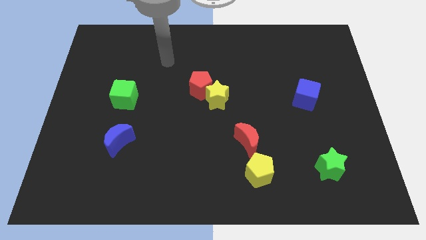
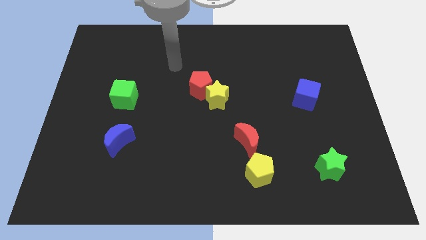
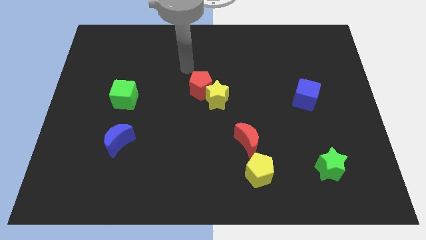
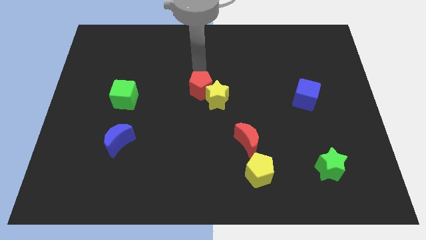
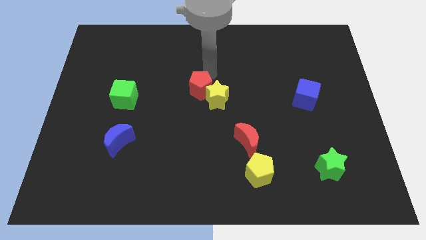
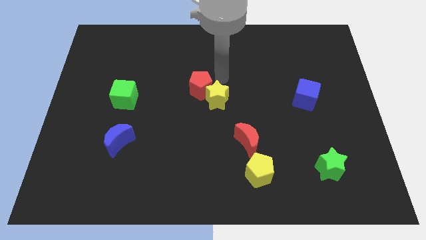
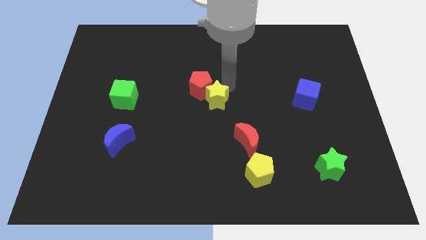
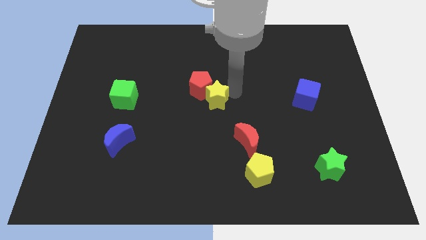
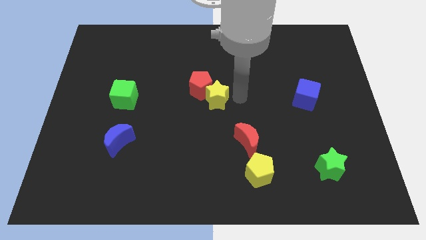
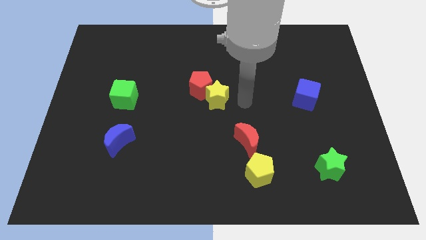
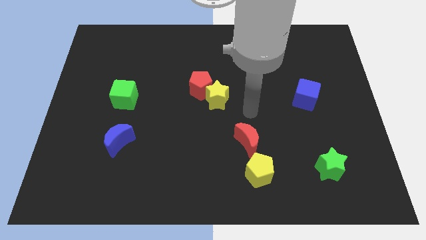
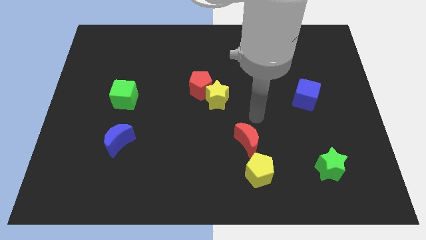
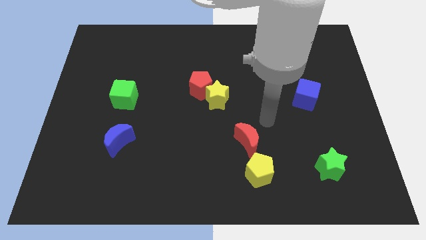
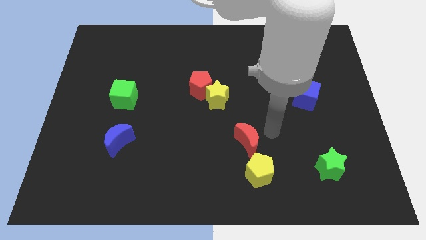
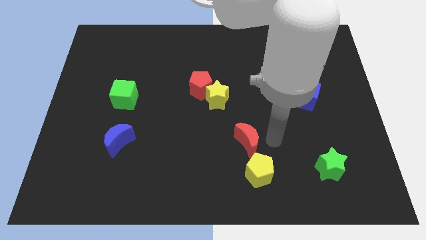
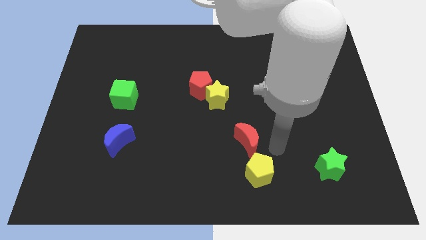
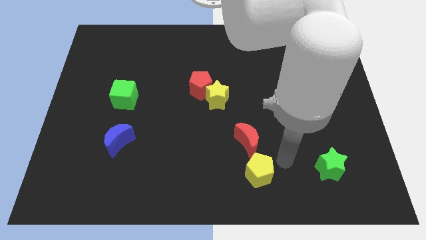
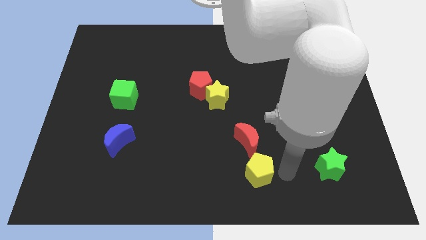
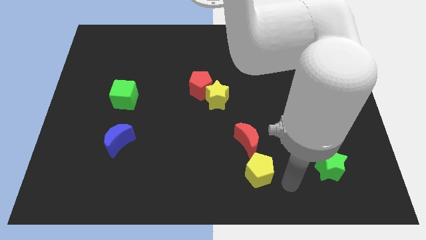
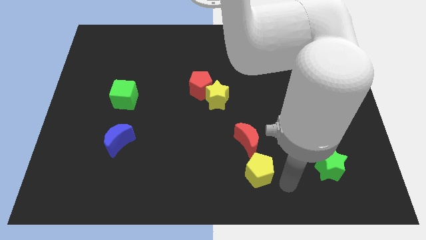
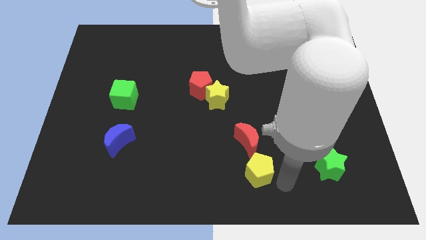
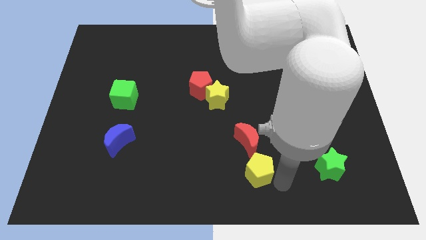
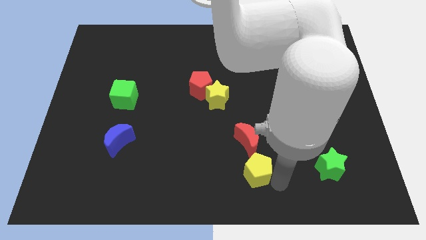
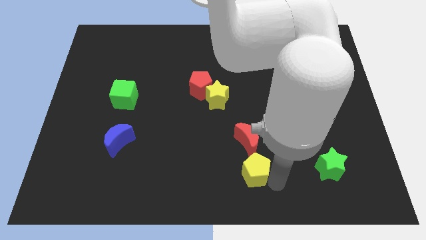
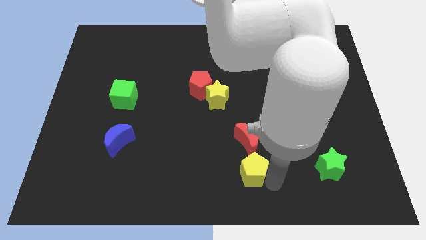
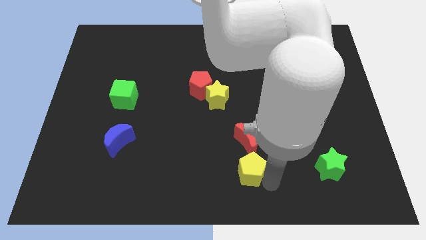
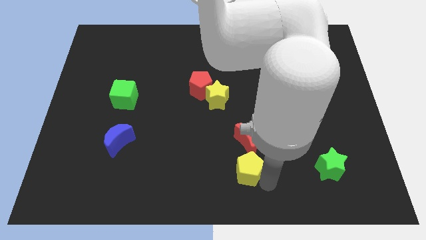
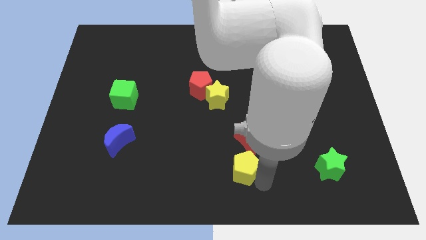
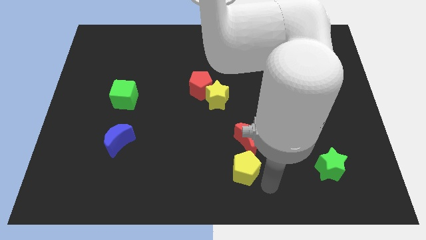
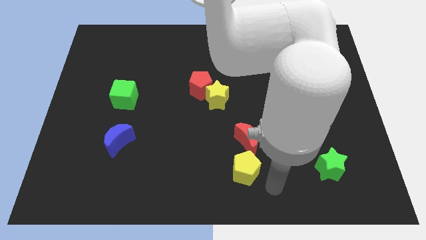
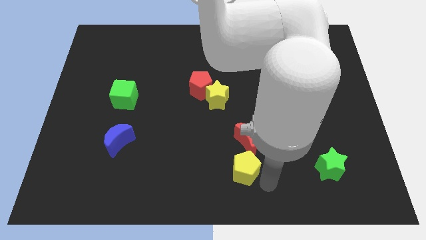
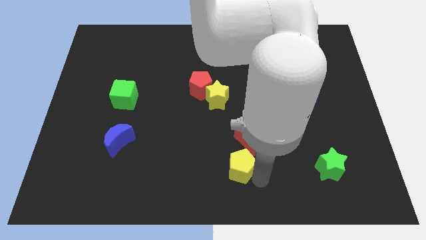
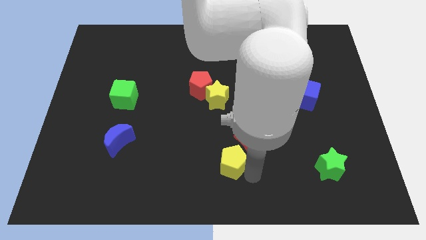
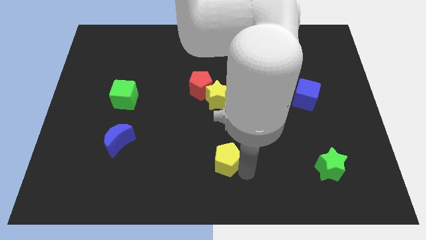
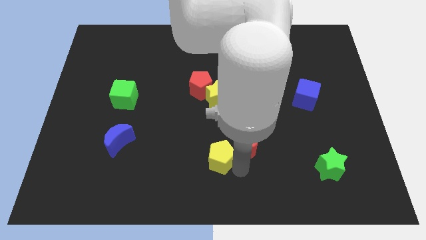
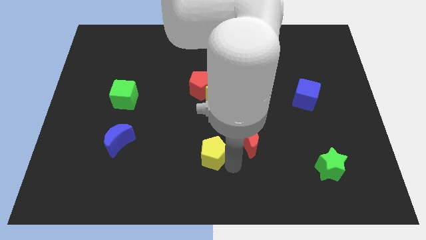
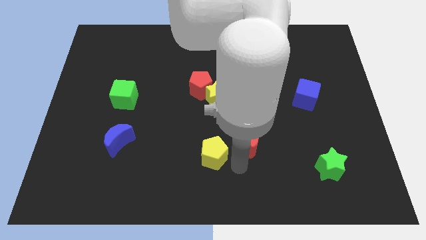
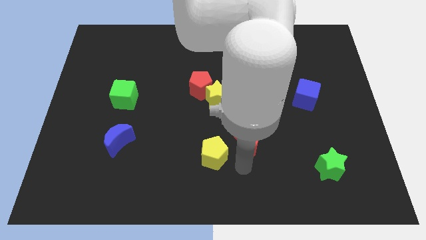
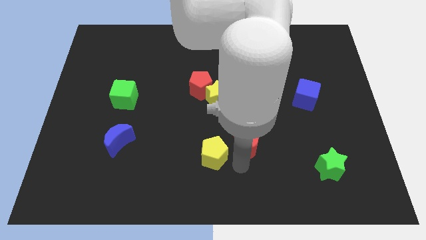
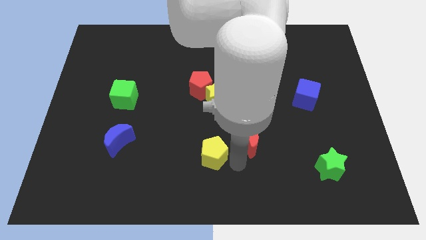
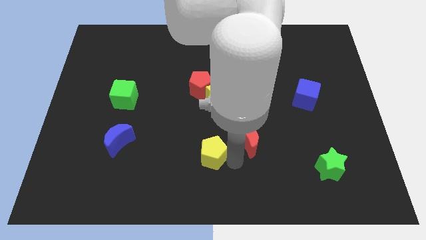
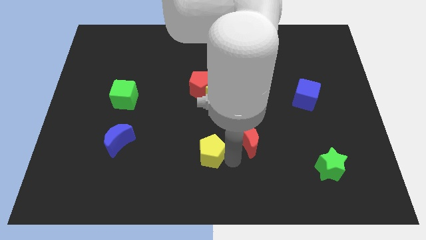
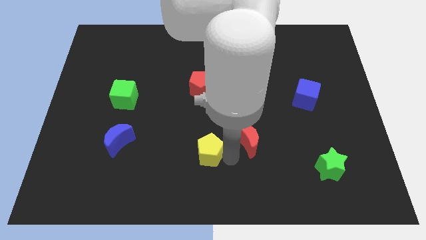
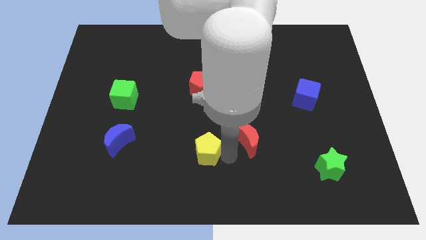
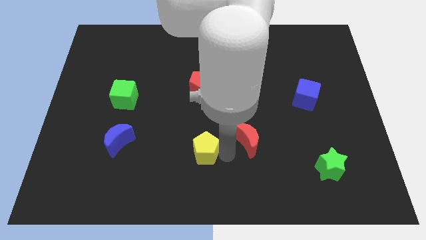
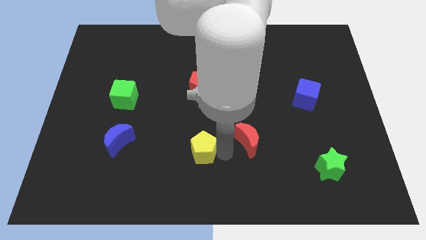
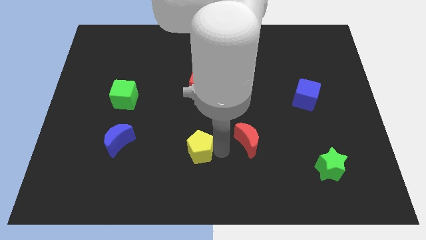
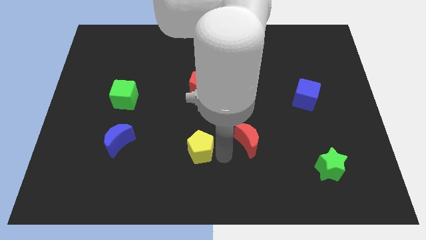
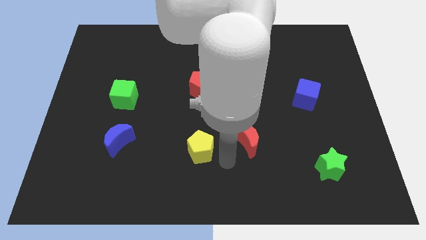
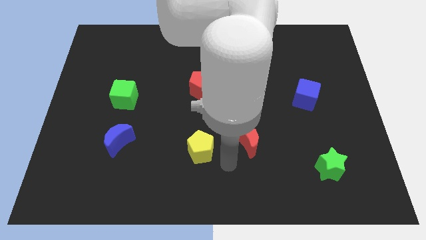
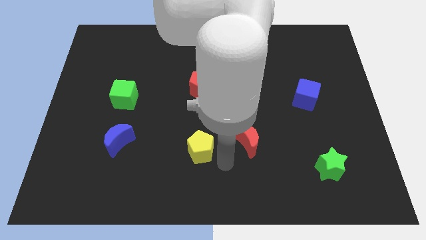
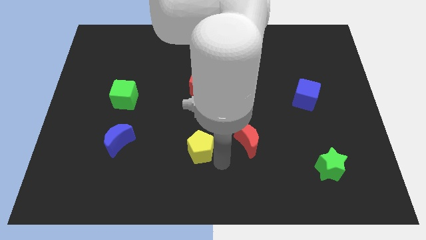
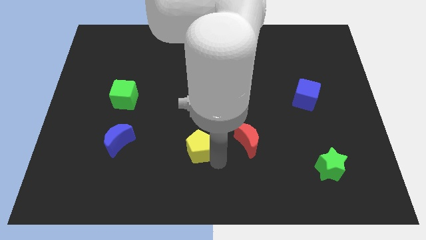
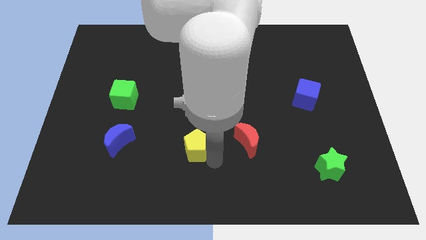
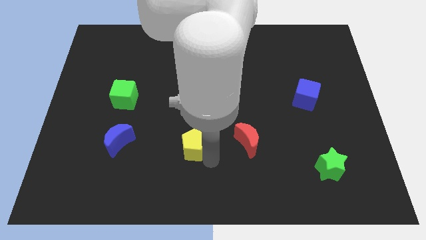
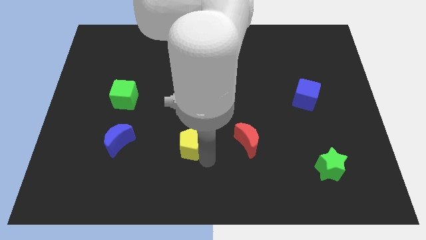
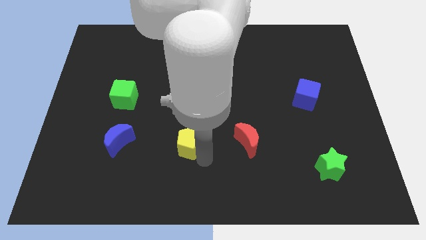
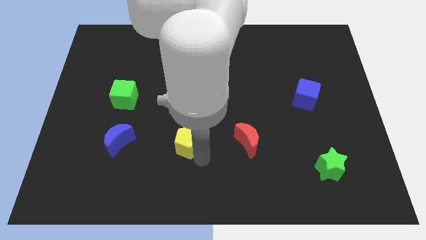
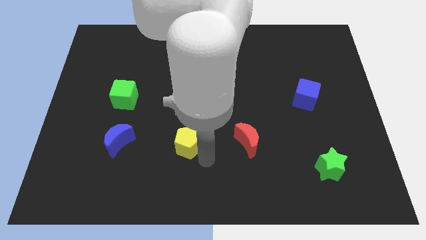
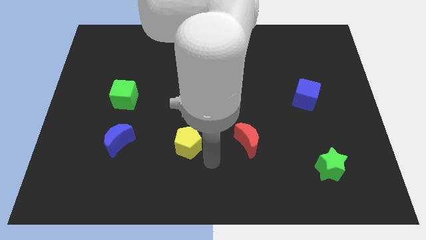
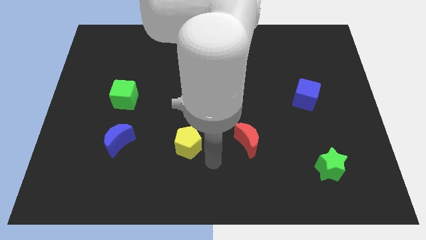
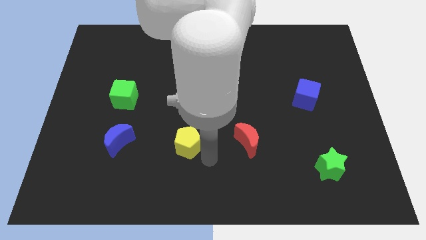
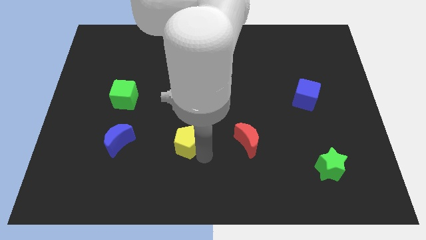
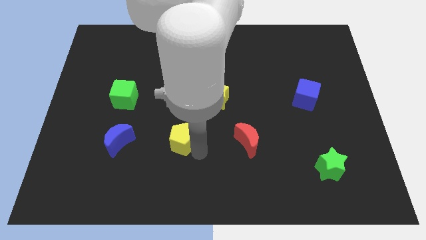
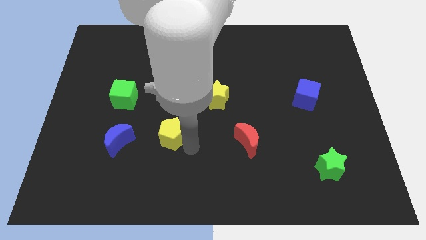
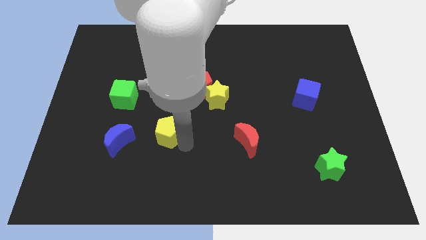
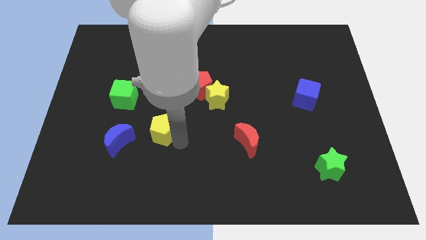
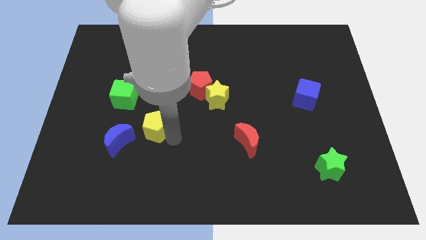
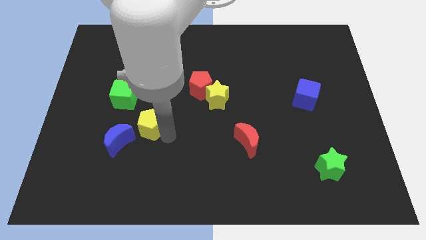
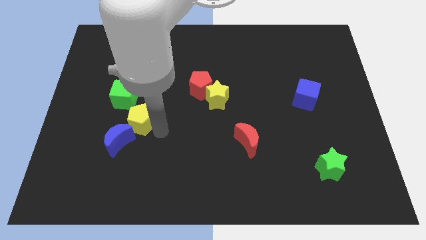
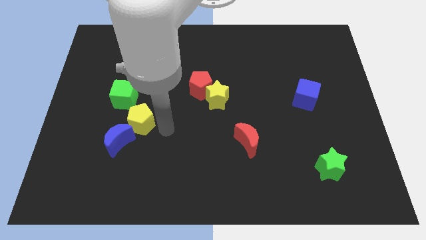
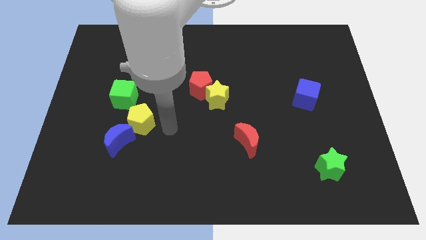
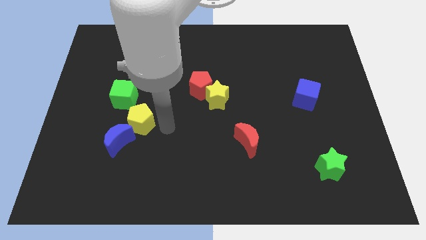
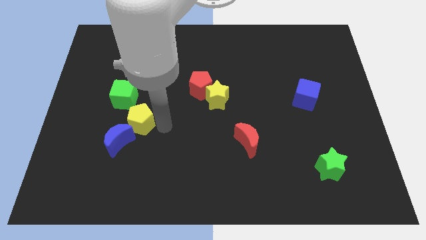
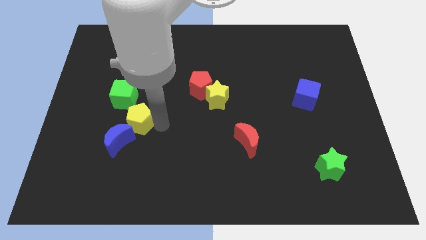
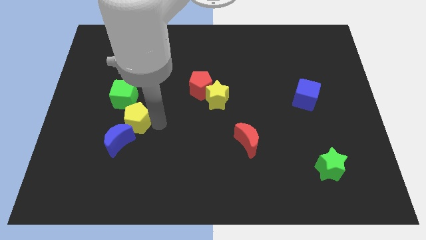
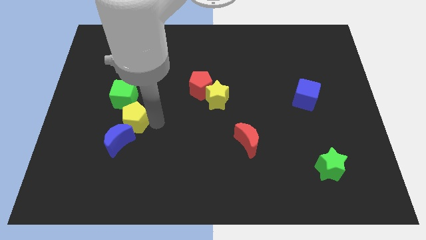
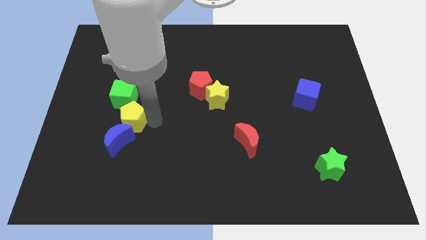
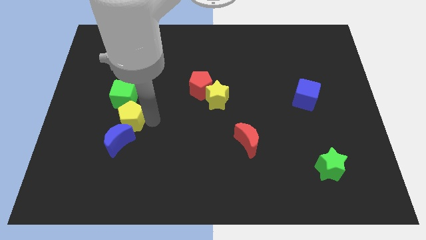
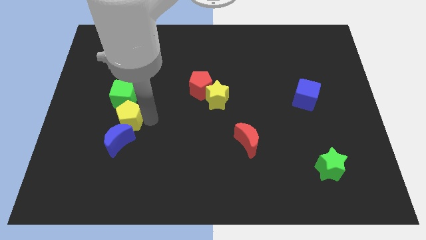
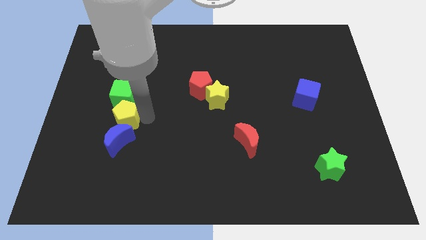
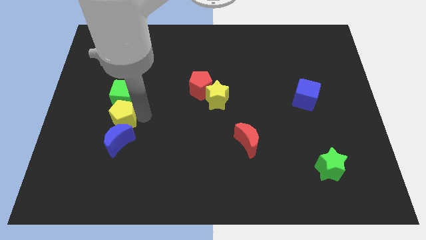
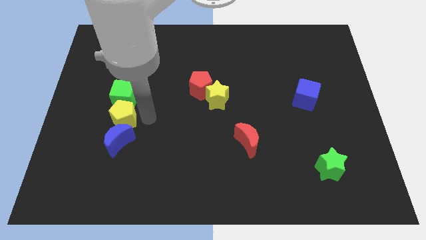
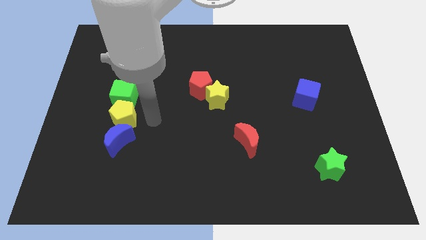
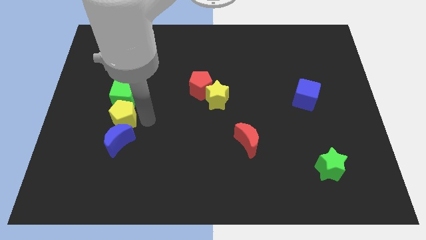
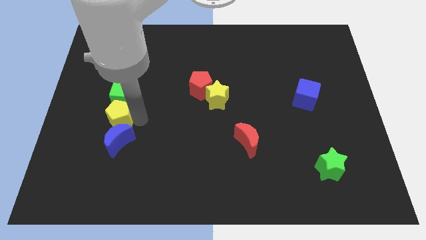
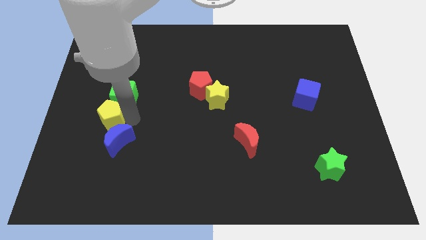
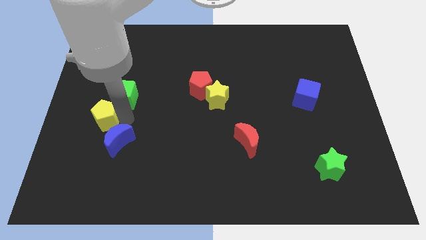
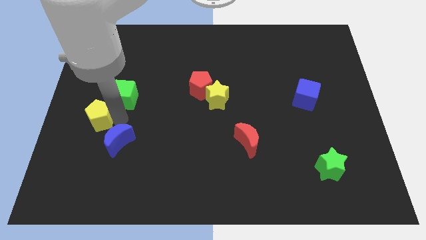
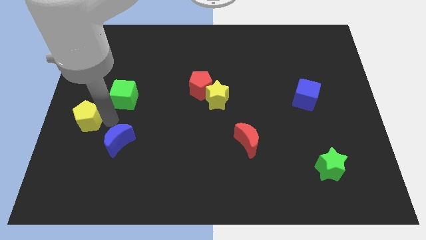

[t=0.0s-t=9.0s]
move the yellow pentagon to the left side
